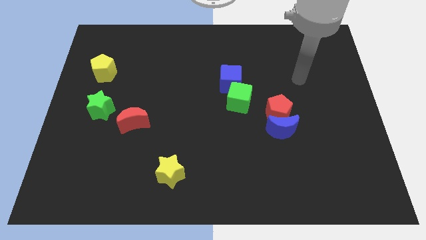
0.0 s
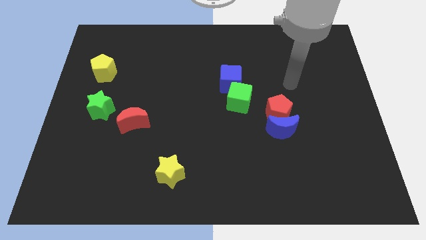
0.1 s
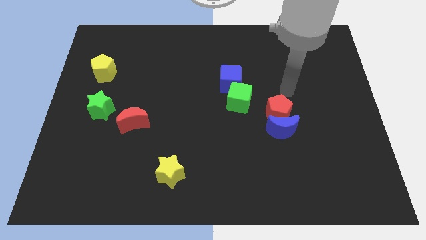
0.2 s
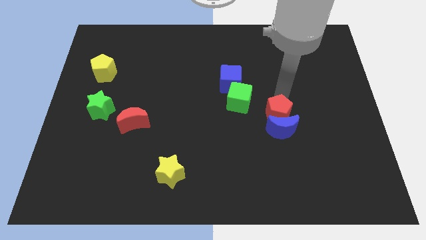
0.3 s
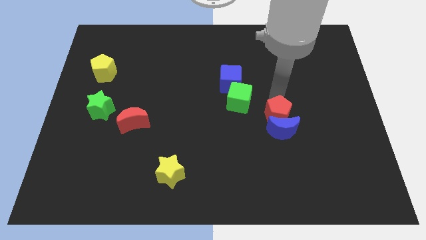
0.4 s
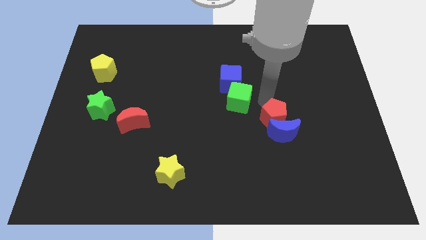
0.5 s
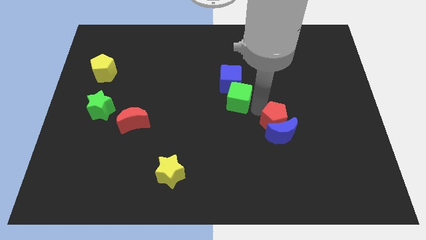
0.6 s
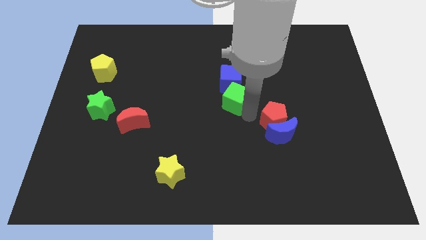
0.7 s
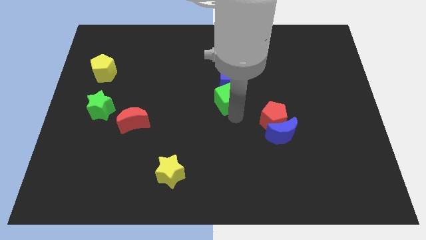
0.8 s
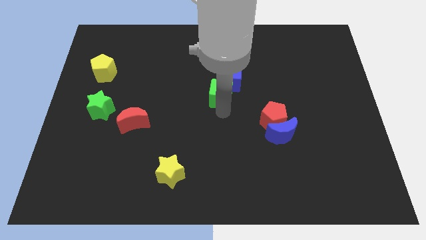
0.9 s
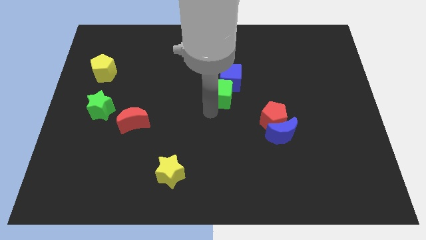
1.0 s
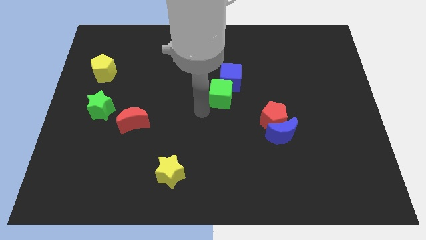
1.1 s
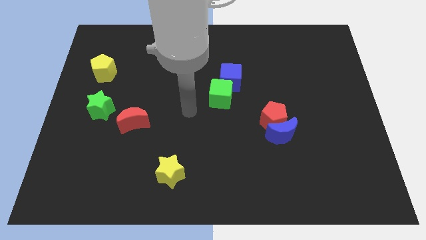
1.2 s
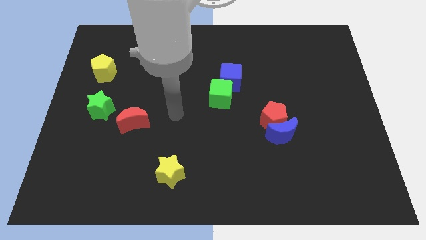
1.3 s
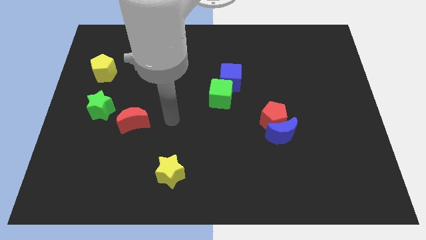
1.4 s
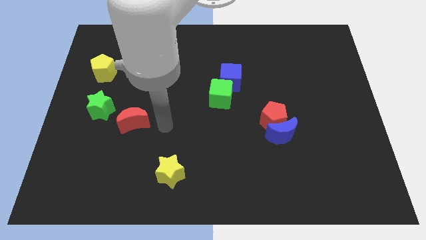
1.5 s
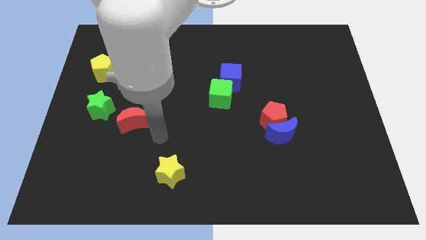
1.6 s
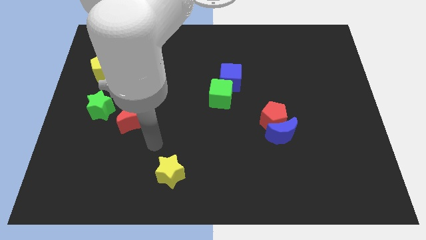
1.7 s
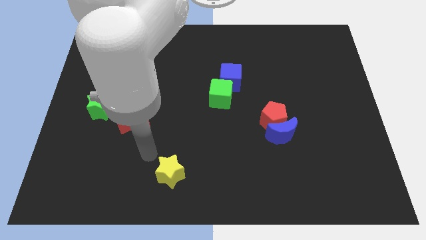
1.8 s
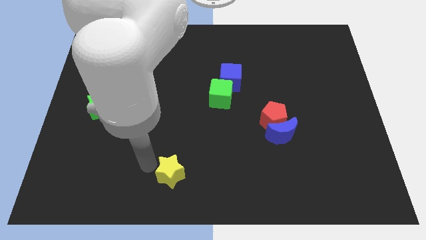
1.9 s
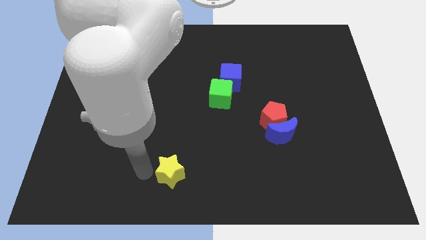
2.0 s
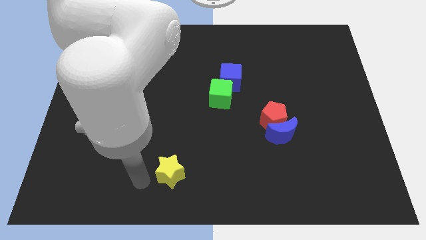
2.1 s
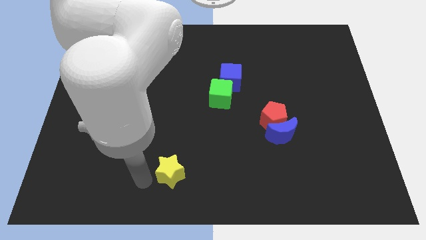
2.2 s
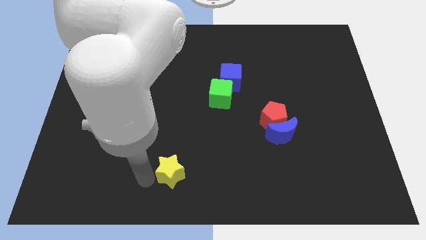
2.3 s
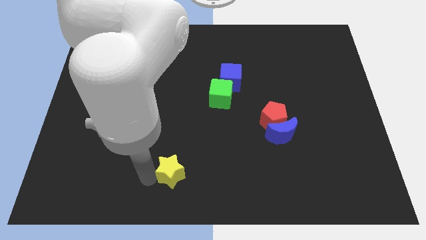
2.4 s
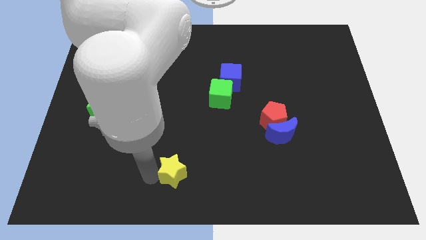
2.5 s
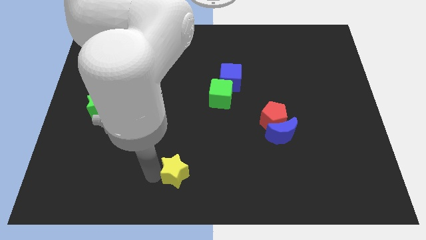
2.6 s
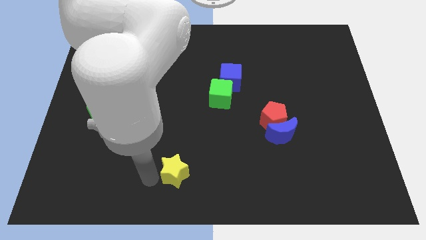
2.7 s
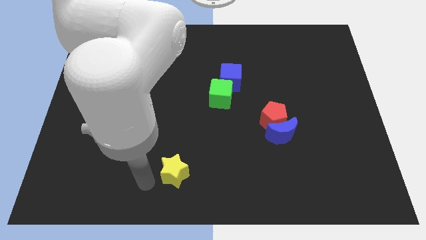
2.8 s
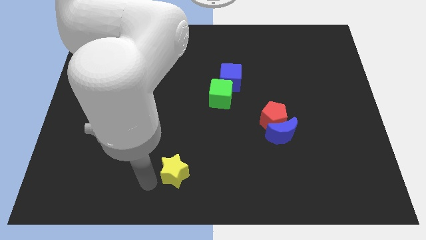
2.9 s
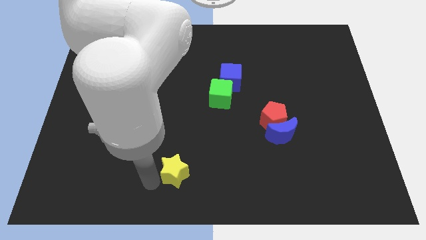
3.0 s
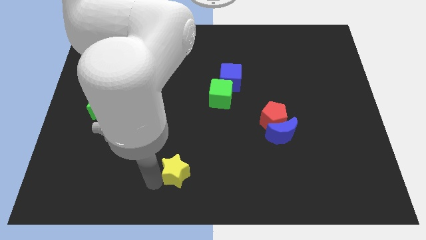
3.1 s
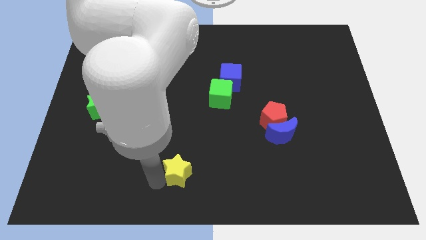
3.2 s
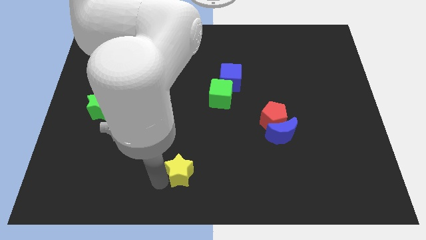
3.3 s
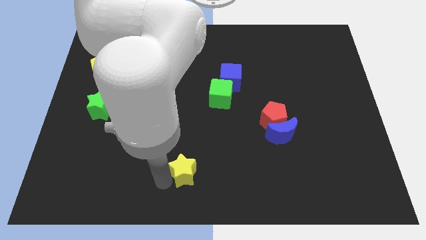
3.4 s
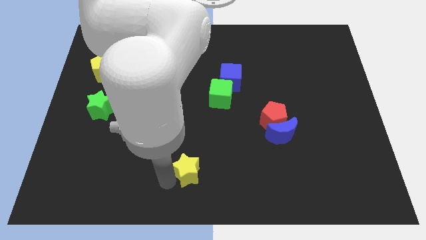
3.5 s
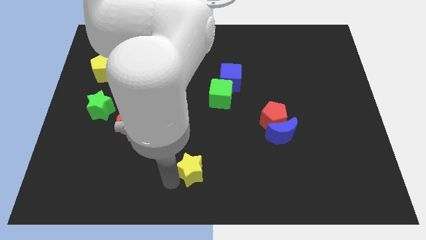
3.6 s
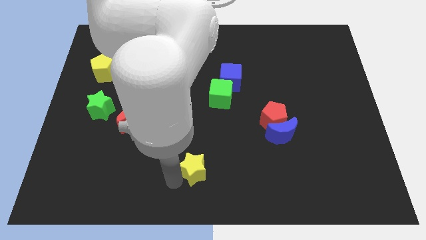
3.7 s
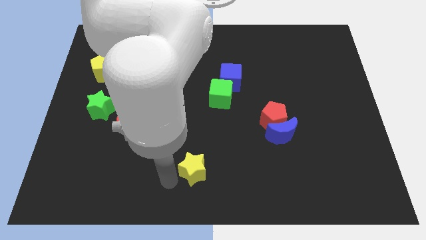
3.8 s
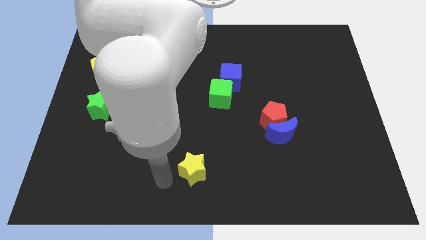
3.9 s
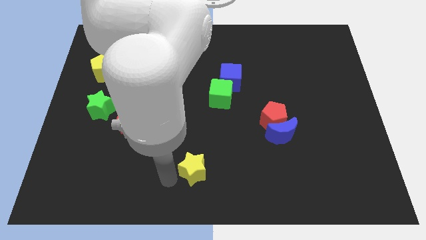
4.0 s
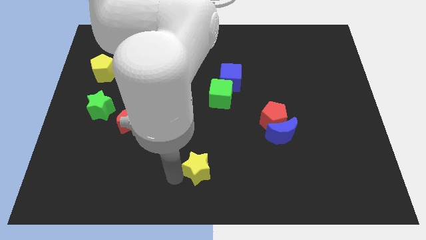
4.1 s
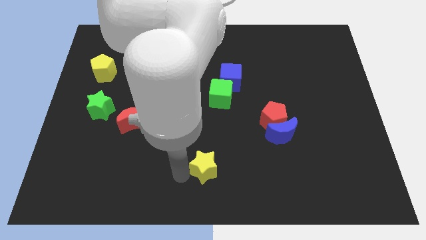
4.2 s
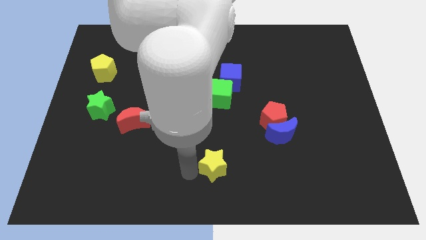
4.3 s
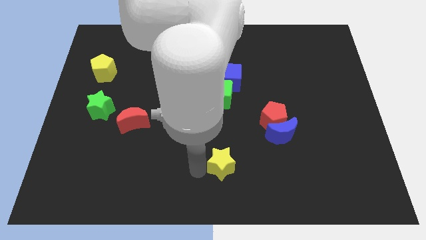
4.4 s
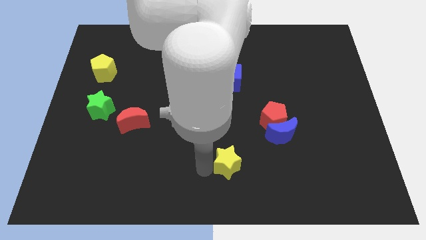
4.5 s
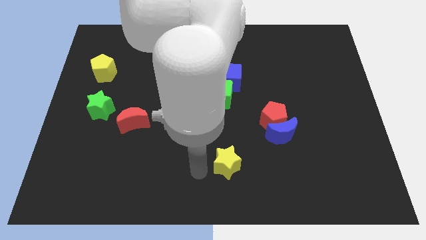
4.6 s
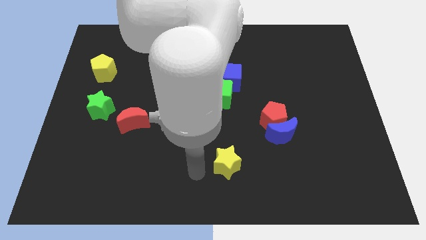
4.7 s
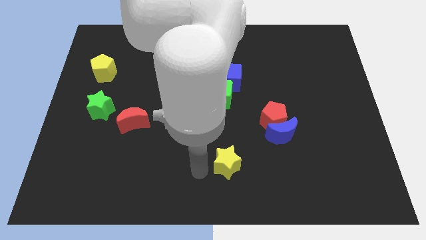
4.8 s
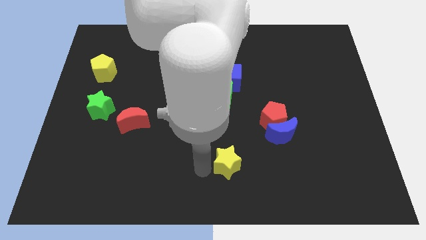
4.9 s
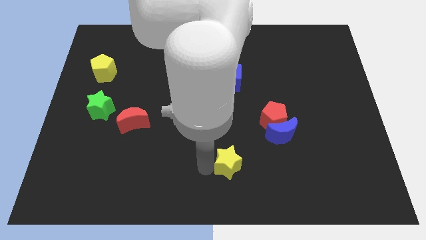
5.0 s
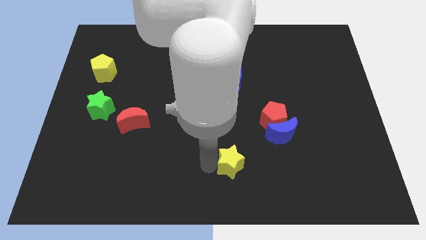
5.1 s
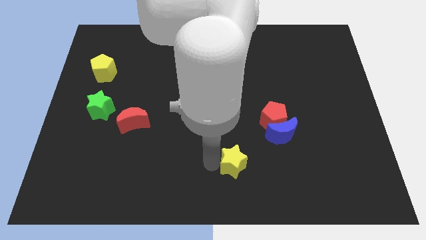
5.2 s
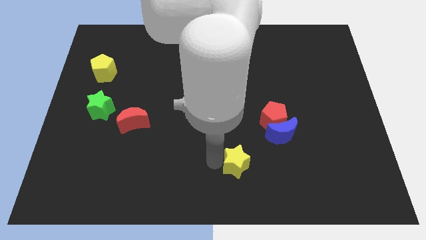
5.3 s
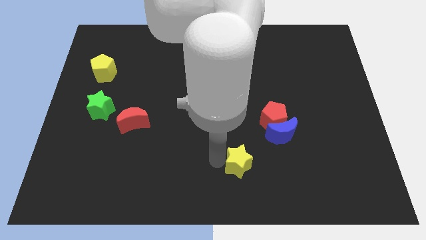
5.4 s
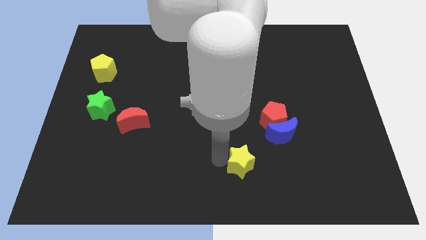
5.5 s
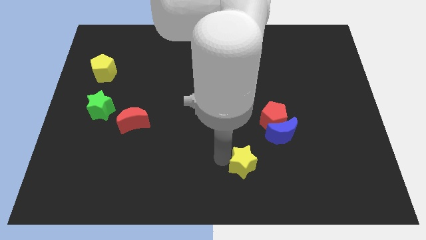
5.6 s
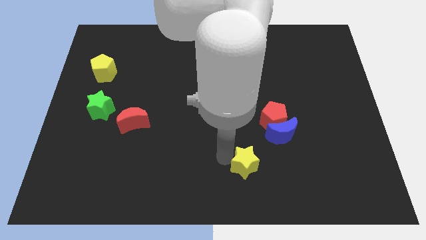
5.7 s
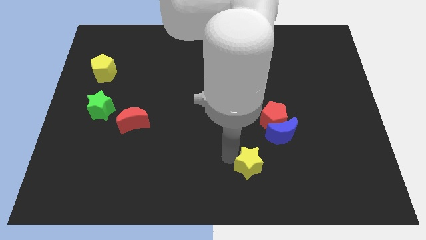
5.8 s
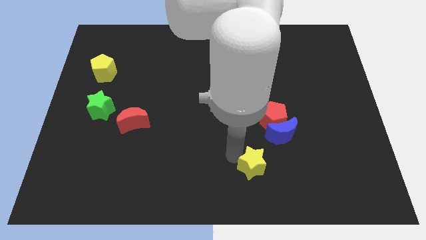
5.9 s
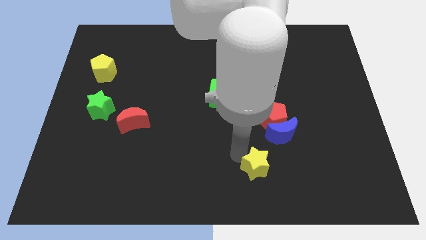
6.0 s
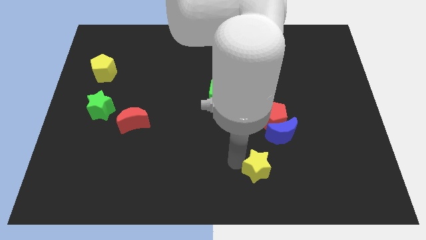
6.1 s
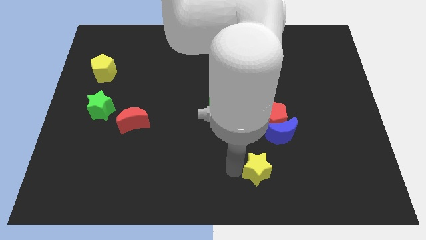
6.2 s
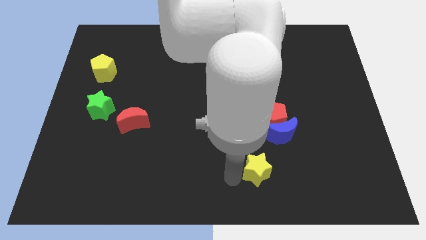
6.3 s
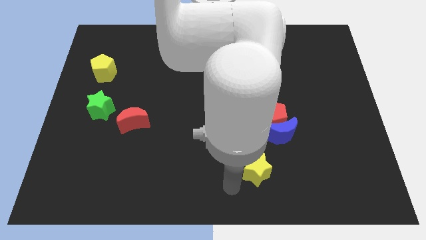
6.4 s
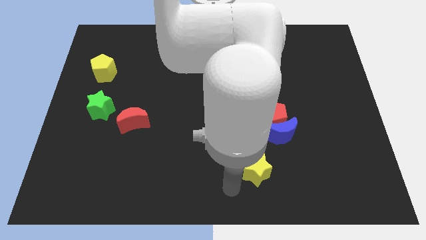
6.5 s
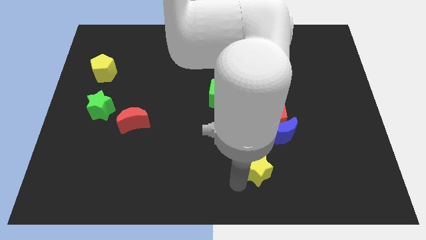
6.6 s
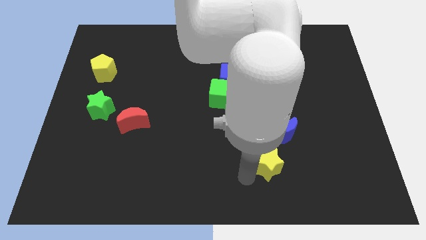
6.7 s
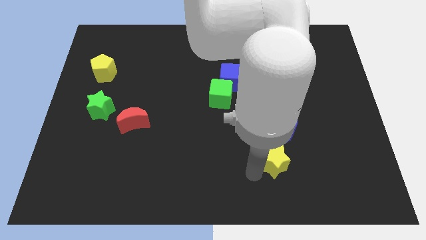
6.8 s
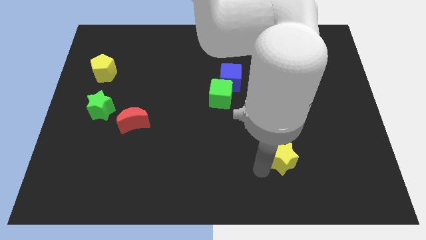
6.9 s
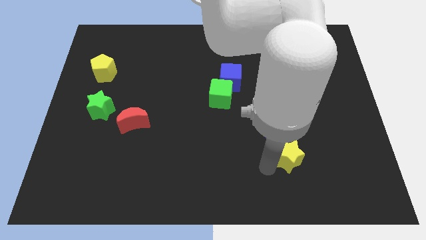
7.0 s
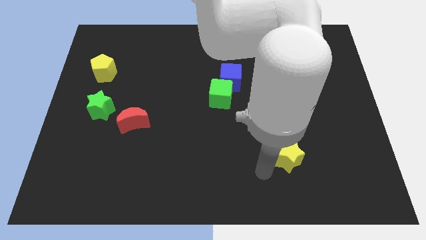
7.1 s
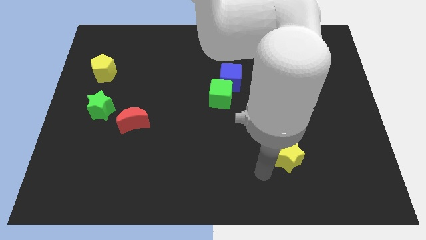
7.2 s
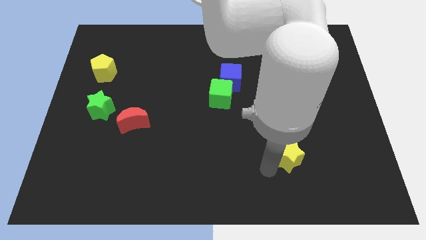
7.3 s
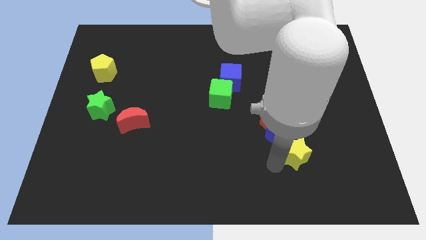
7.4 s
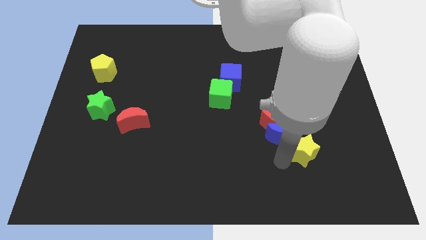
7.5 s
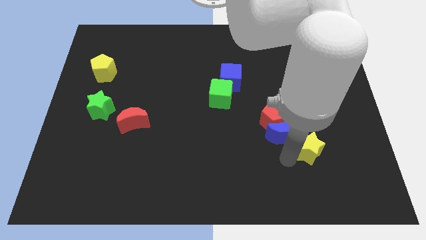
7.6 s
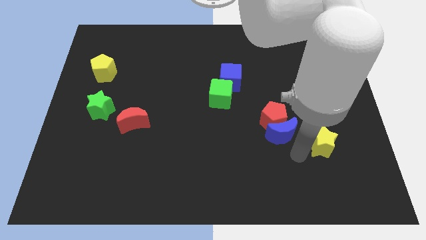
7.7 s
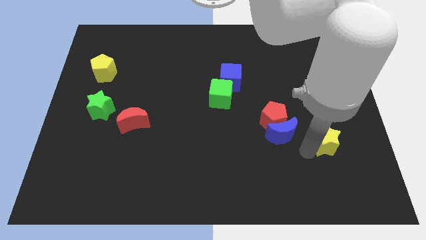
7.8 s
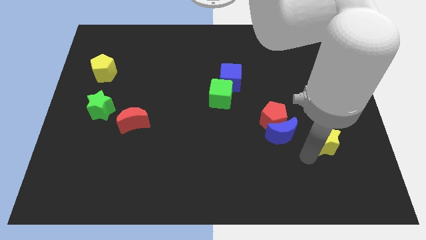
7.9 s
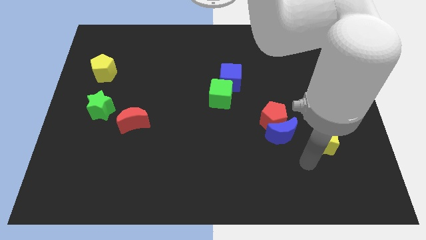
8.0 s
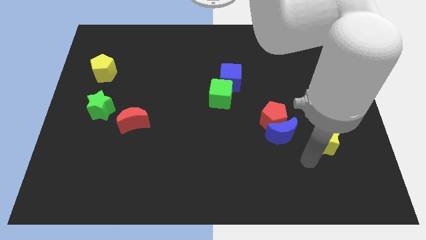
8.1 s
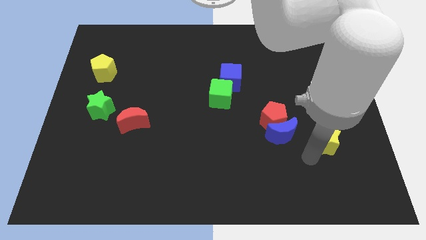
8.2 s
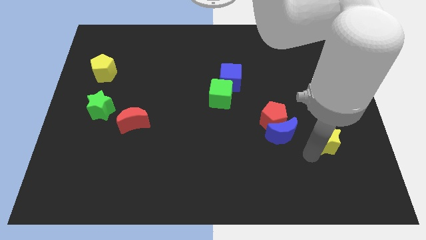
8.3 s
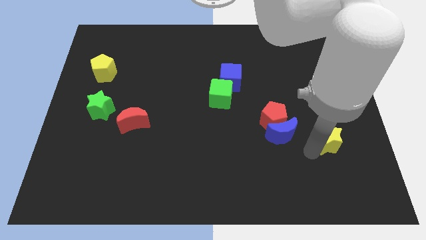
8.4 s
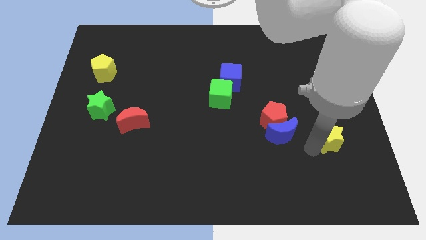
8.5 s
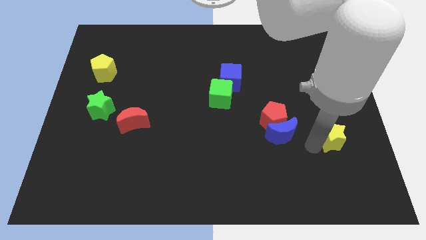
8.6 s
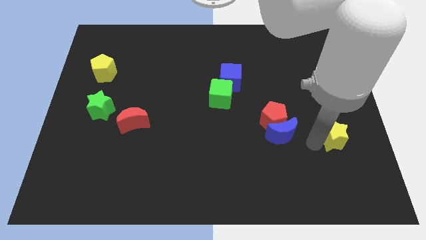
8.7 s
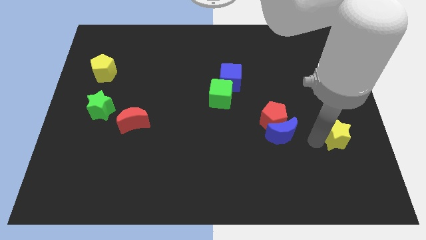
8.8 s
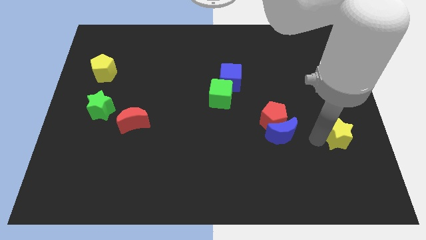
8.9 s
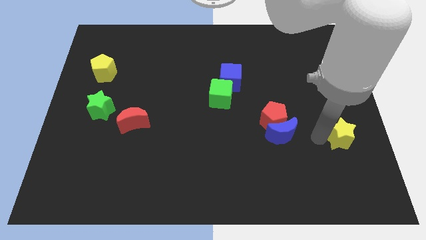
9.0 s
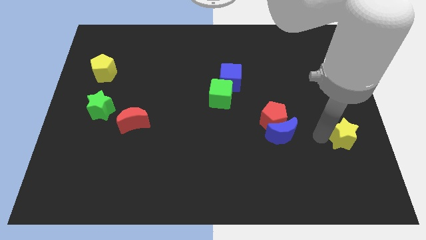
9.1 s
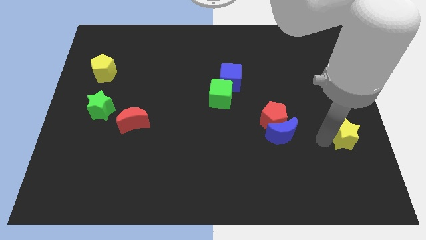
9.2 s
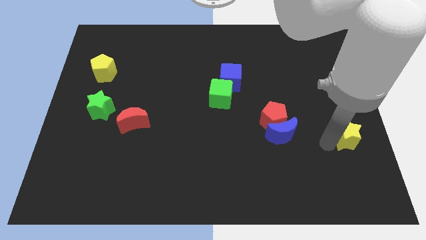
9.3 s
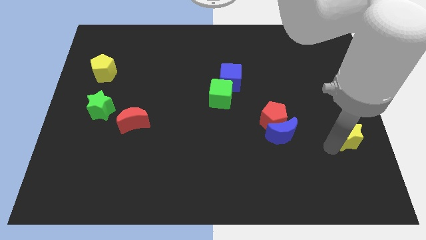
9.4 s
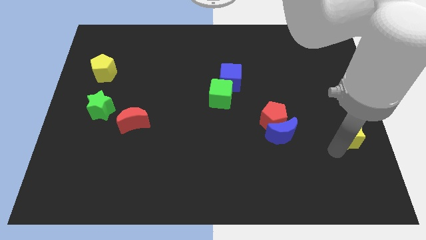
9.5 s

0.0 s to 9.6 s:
slide the yellow star to the center right
